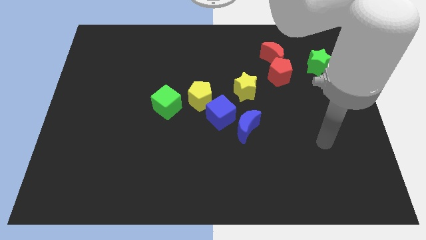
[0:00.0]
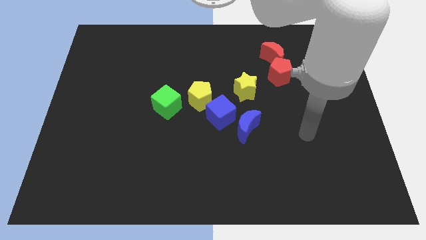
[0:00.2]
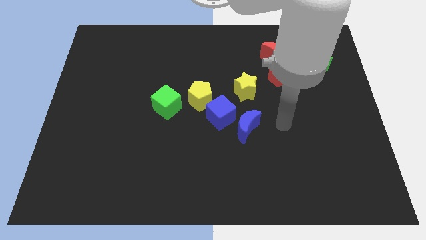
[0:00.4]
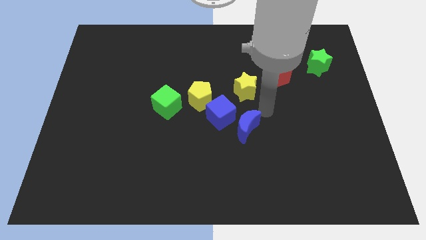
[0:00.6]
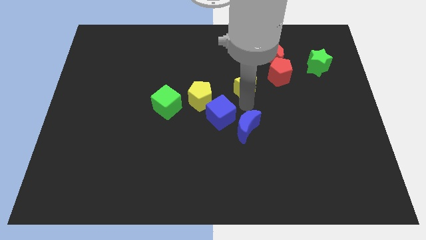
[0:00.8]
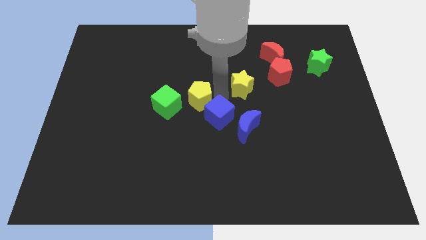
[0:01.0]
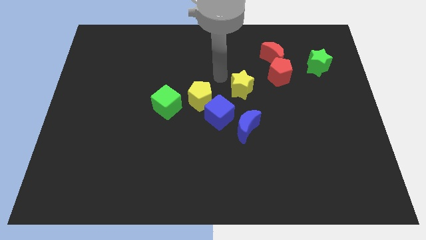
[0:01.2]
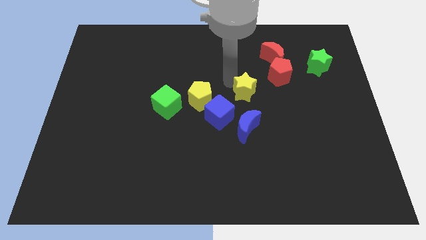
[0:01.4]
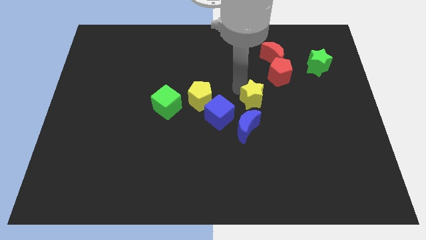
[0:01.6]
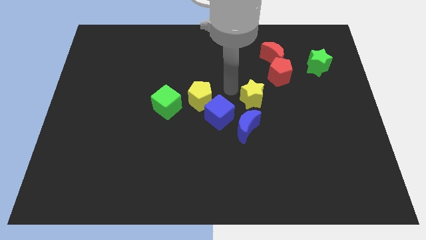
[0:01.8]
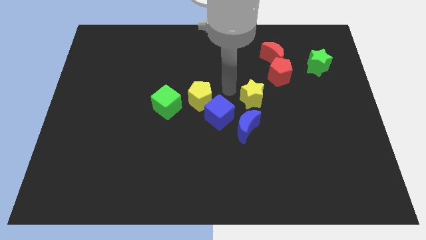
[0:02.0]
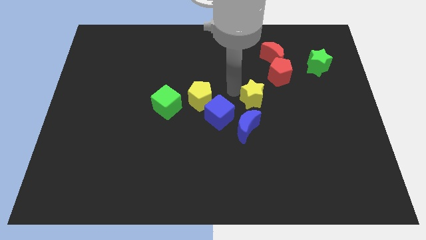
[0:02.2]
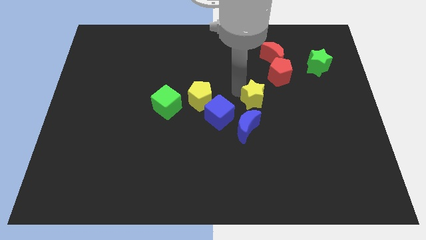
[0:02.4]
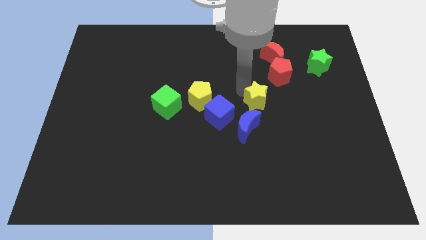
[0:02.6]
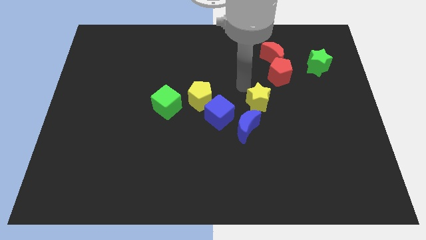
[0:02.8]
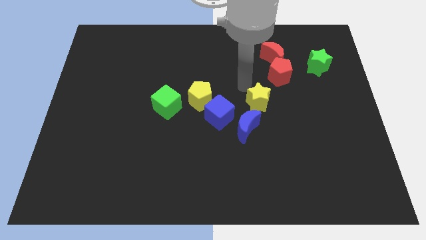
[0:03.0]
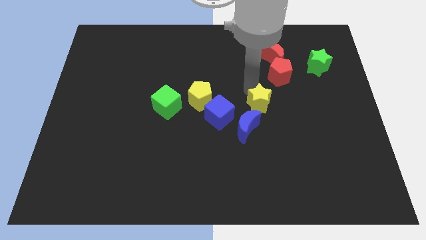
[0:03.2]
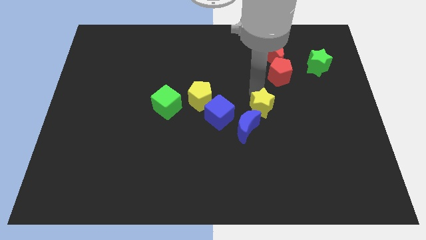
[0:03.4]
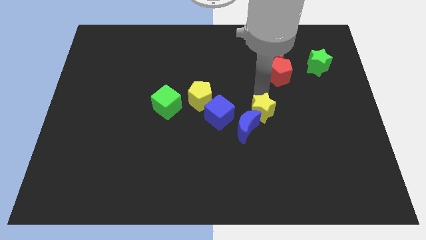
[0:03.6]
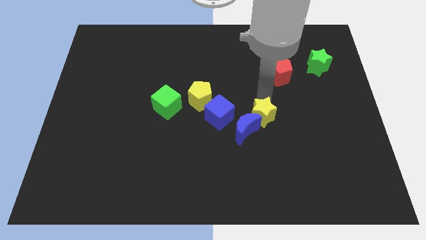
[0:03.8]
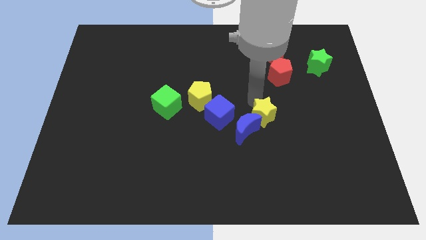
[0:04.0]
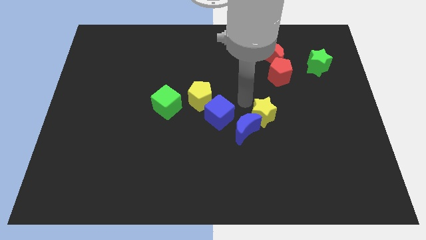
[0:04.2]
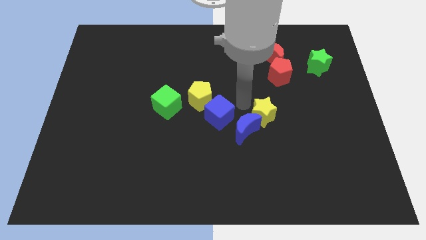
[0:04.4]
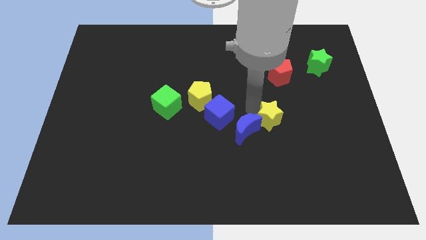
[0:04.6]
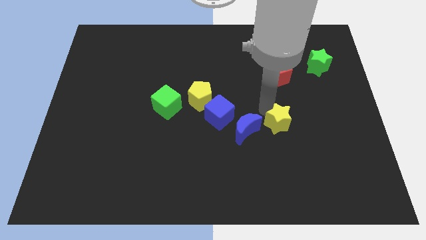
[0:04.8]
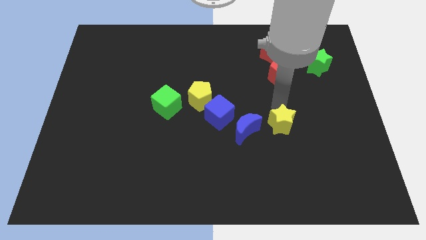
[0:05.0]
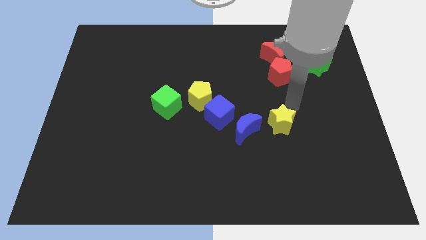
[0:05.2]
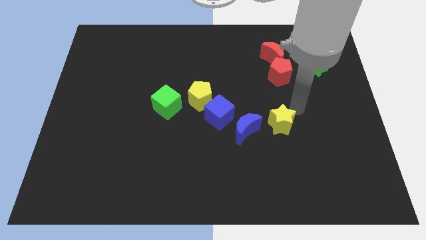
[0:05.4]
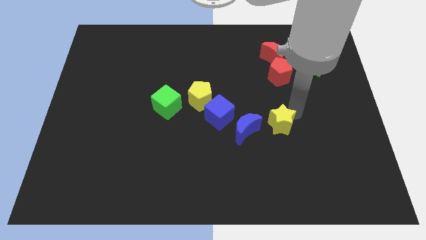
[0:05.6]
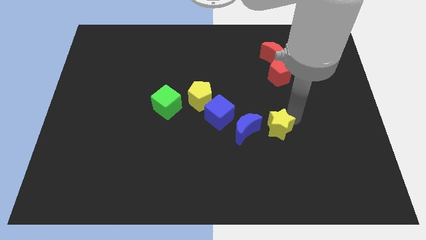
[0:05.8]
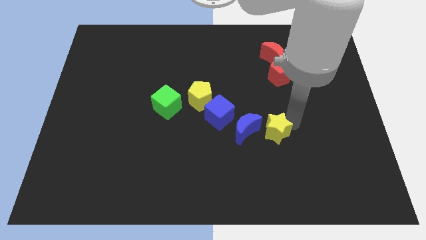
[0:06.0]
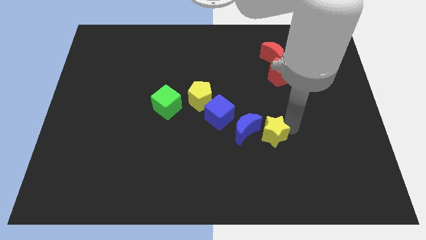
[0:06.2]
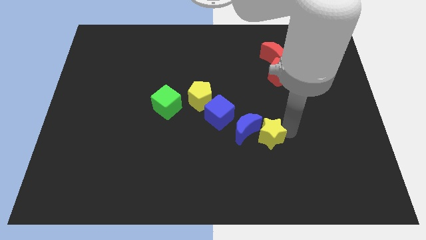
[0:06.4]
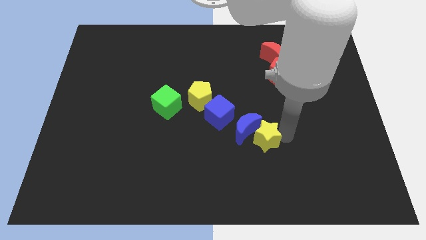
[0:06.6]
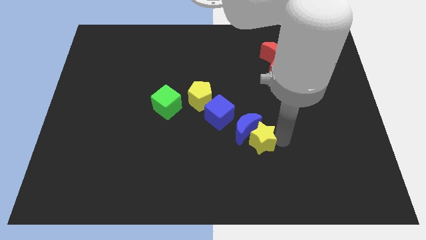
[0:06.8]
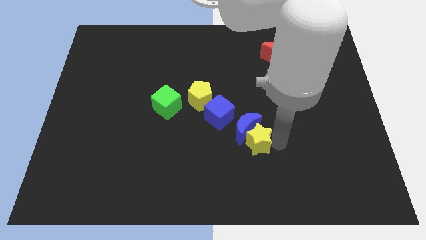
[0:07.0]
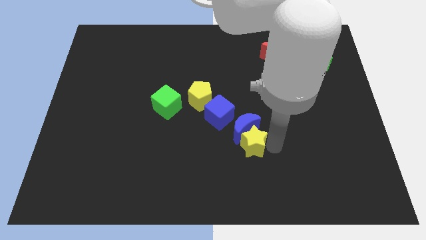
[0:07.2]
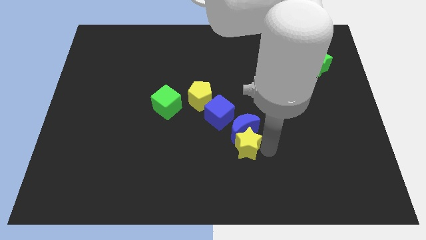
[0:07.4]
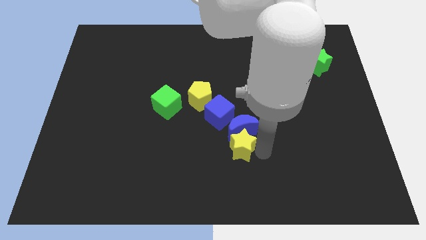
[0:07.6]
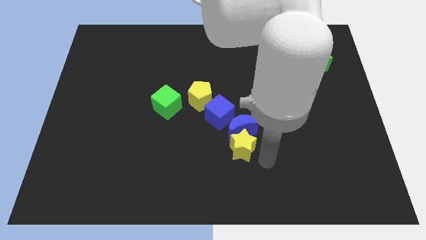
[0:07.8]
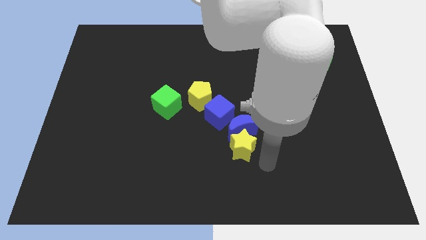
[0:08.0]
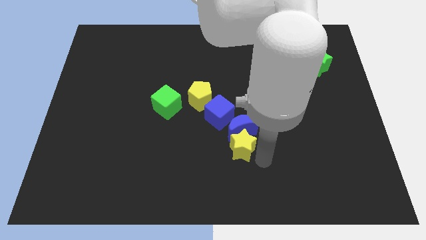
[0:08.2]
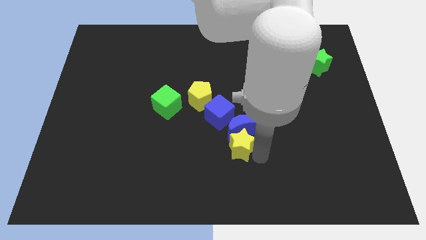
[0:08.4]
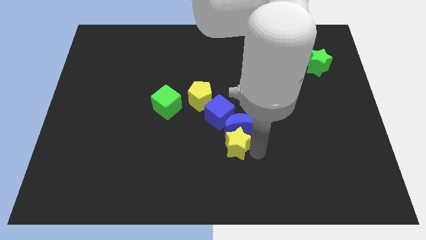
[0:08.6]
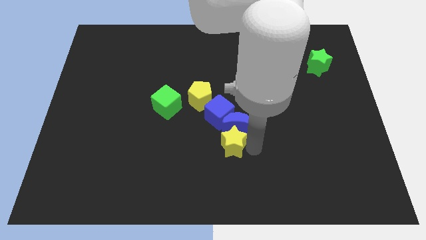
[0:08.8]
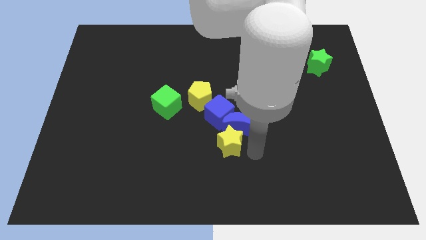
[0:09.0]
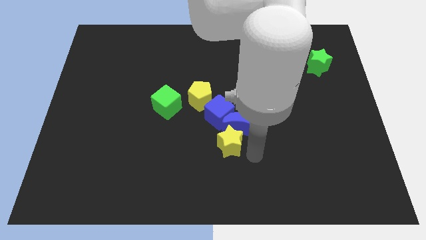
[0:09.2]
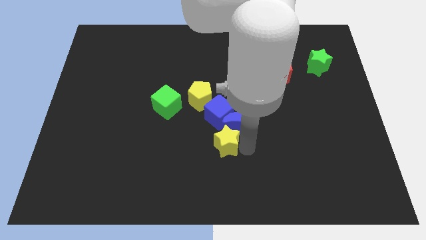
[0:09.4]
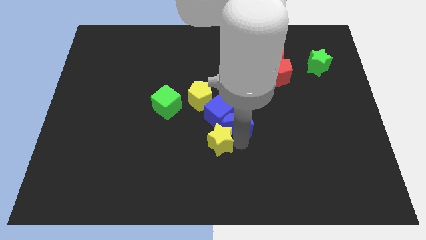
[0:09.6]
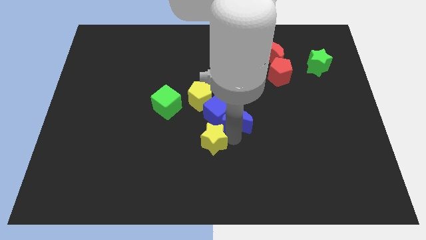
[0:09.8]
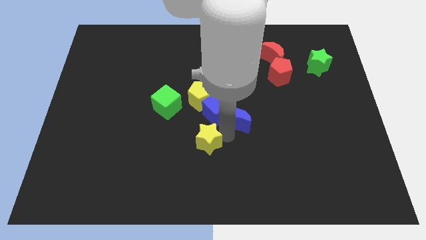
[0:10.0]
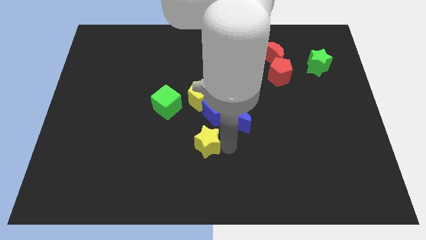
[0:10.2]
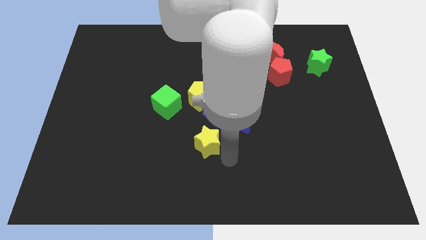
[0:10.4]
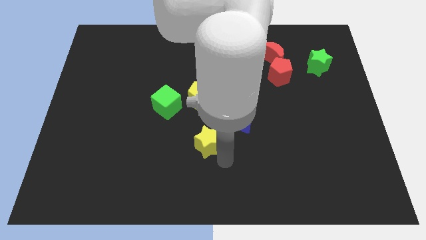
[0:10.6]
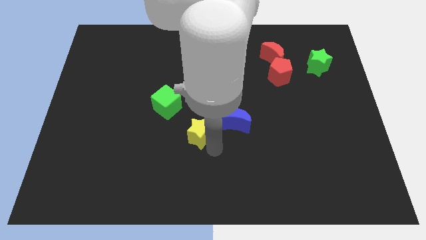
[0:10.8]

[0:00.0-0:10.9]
move the yellow star diagonally down and to the right of the green cube

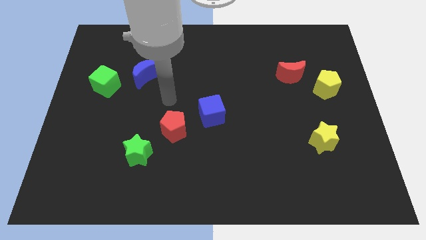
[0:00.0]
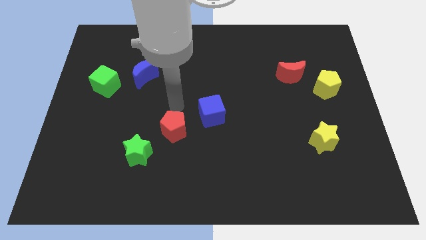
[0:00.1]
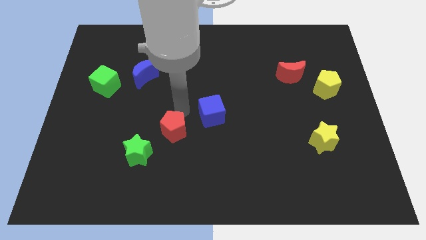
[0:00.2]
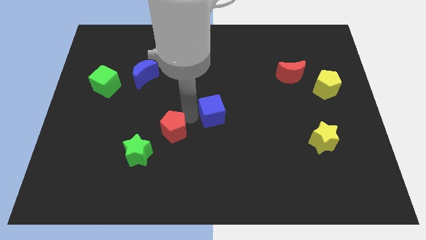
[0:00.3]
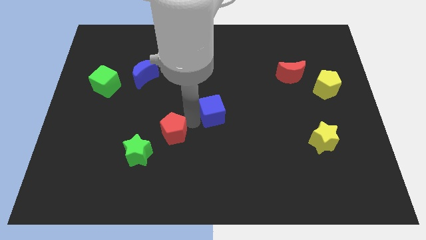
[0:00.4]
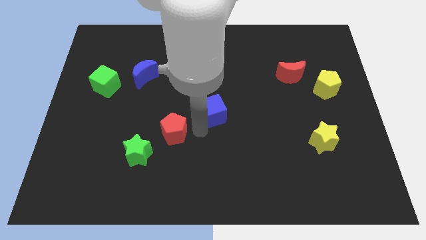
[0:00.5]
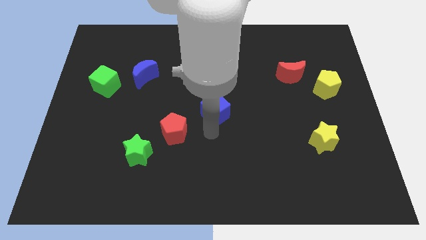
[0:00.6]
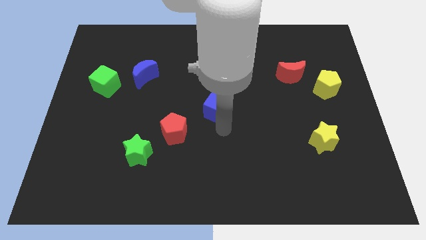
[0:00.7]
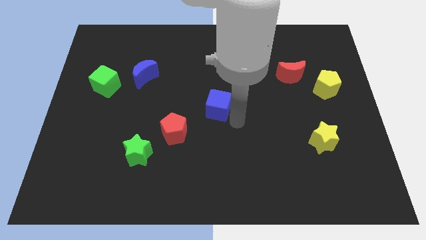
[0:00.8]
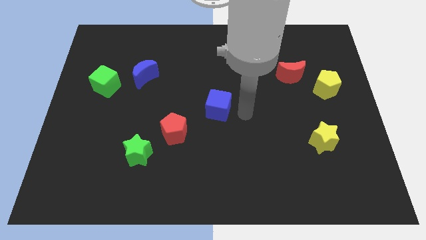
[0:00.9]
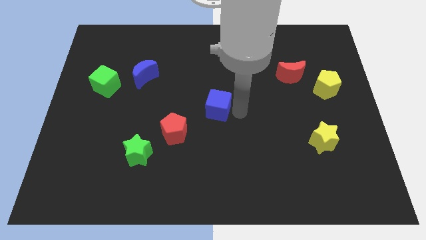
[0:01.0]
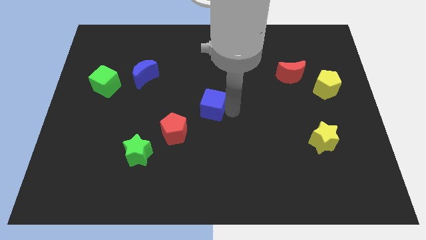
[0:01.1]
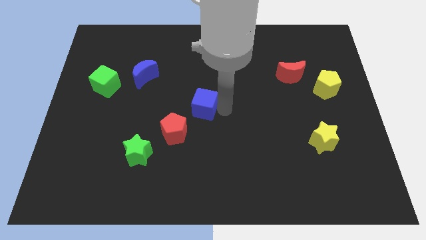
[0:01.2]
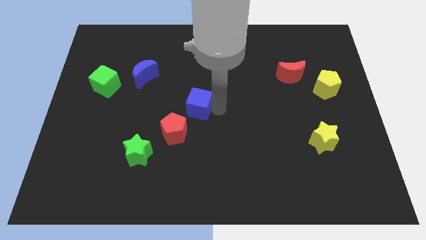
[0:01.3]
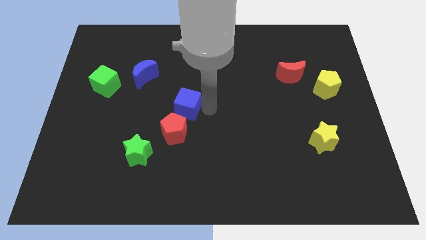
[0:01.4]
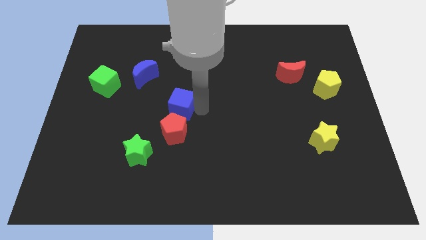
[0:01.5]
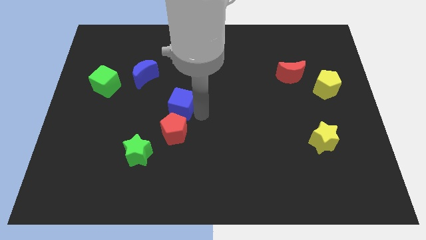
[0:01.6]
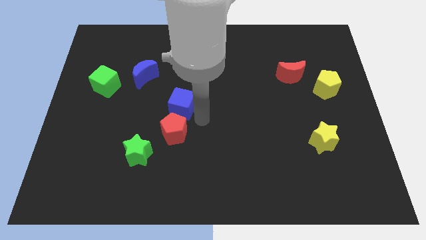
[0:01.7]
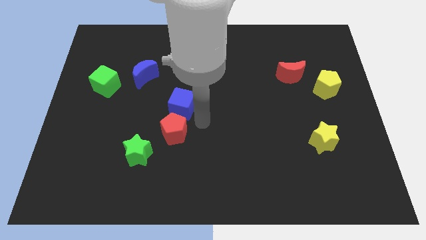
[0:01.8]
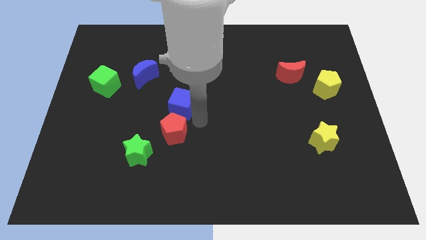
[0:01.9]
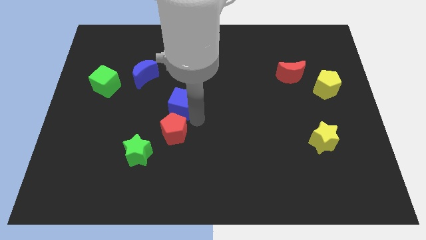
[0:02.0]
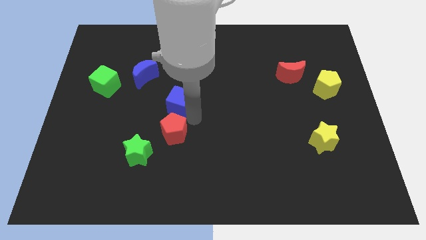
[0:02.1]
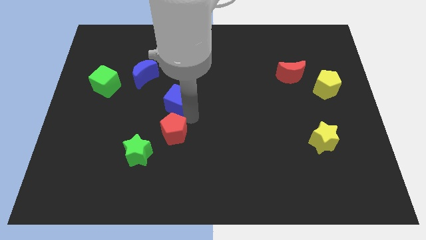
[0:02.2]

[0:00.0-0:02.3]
move the blue cube diagonally down and to the right of the blue moon
